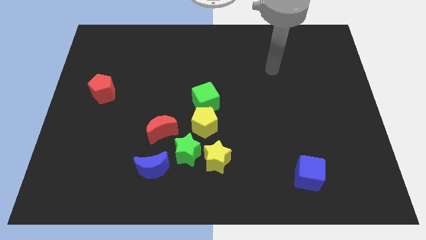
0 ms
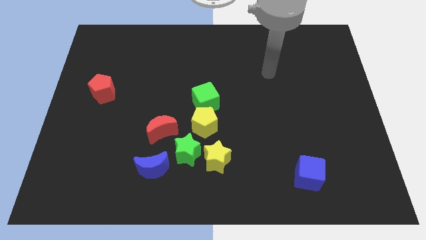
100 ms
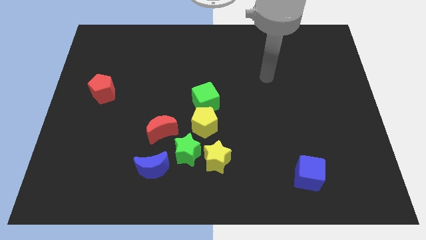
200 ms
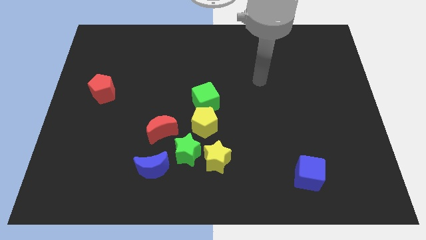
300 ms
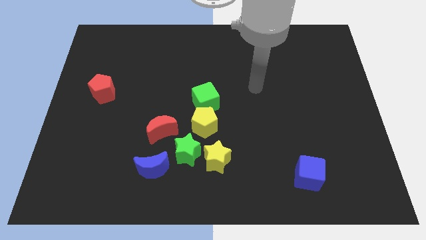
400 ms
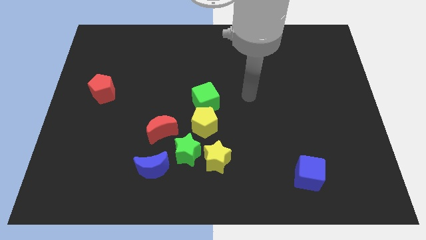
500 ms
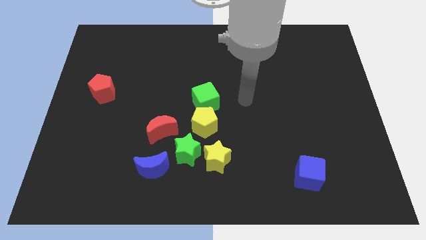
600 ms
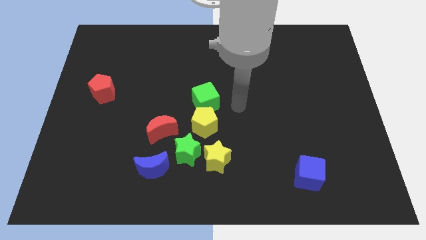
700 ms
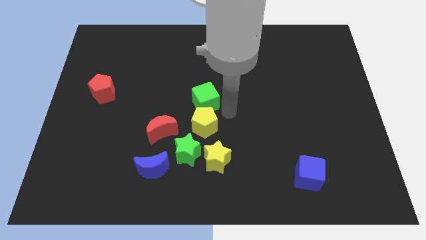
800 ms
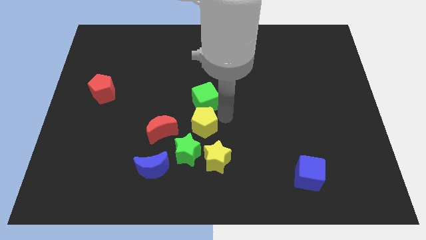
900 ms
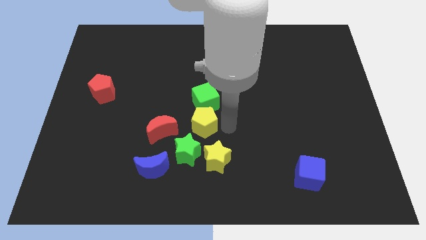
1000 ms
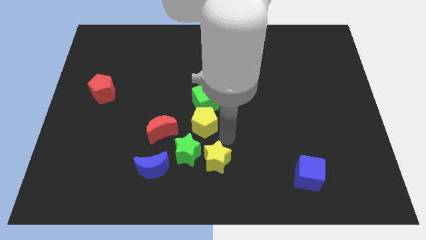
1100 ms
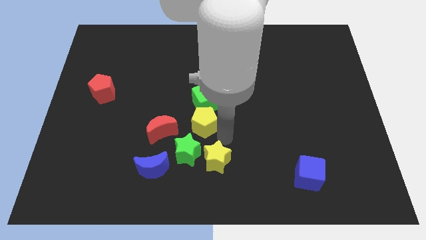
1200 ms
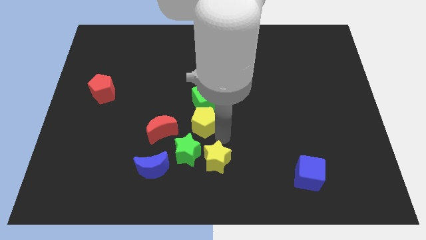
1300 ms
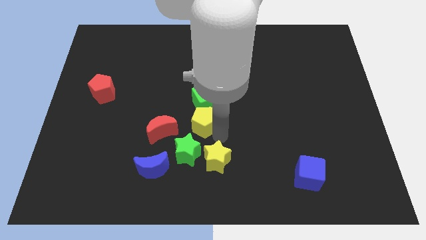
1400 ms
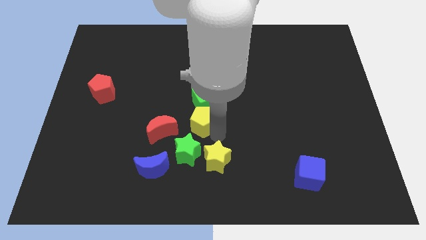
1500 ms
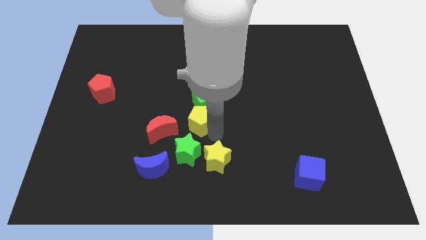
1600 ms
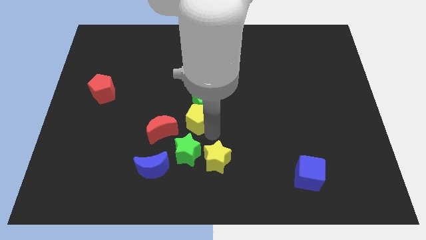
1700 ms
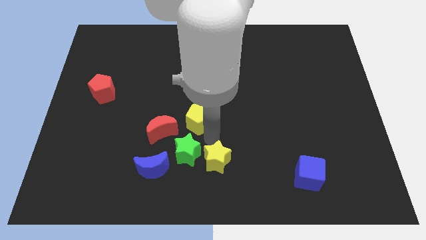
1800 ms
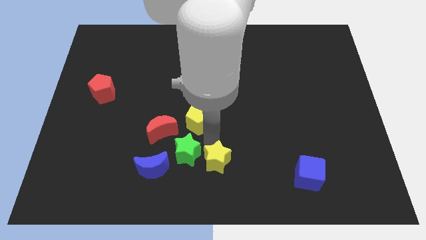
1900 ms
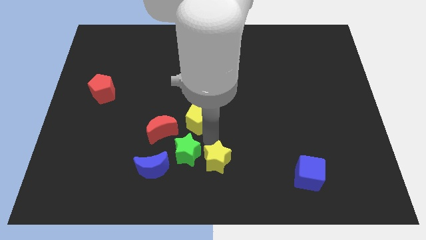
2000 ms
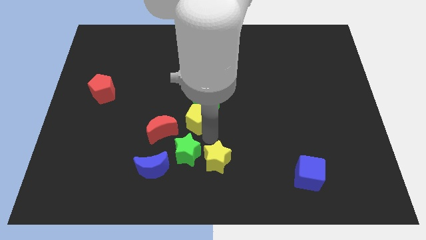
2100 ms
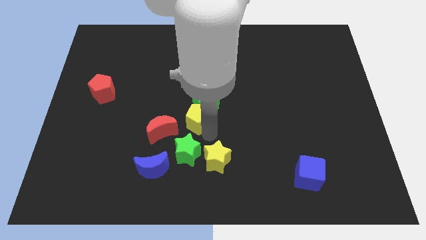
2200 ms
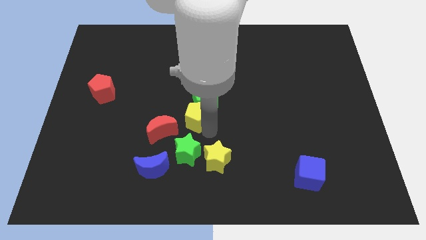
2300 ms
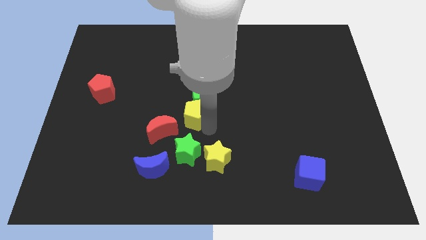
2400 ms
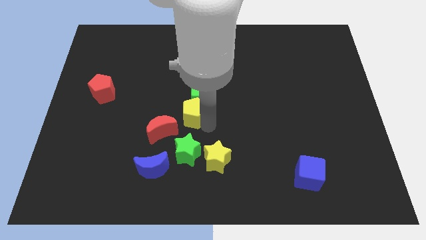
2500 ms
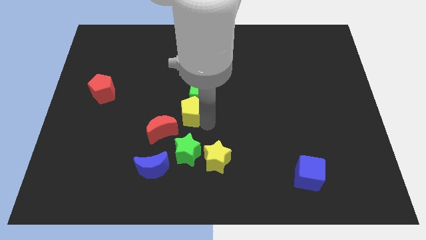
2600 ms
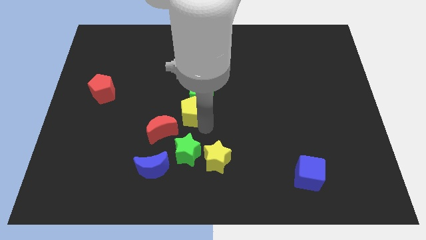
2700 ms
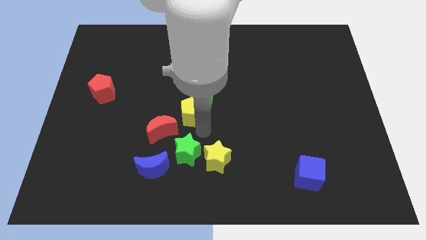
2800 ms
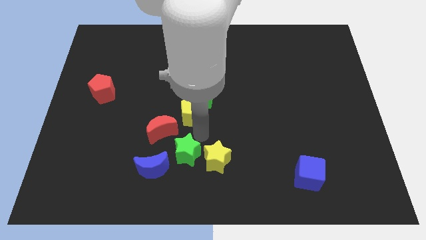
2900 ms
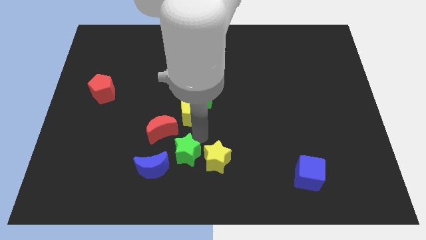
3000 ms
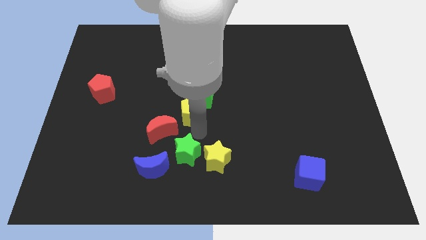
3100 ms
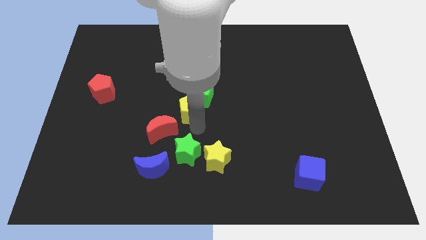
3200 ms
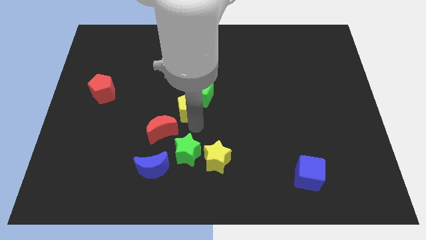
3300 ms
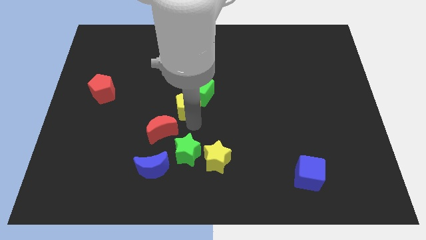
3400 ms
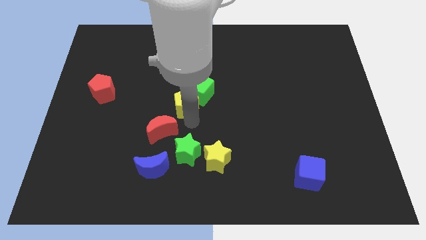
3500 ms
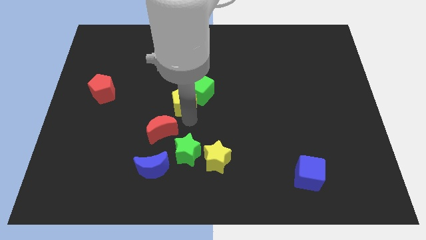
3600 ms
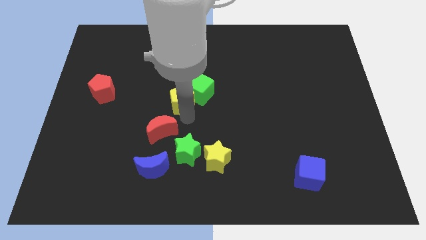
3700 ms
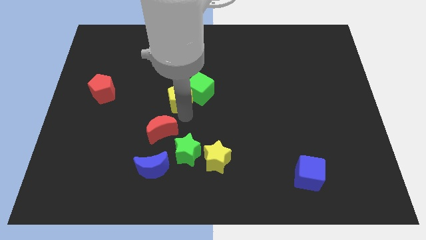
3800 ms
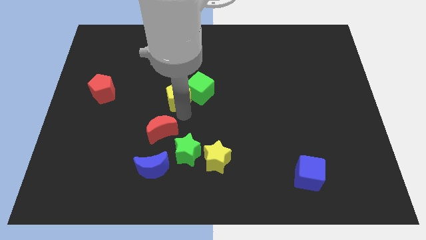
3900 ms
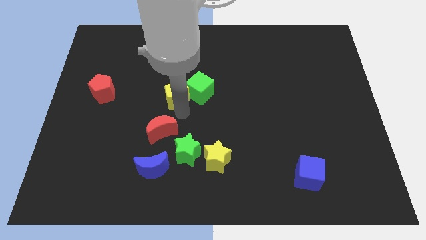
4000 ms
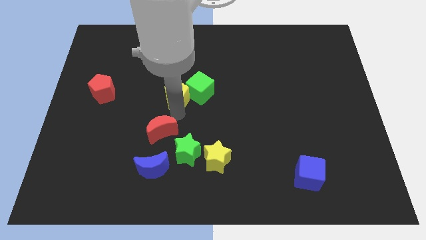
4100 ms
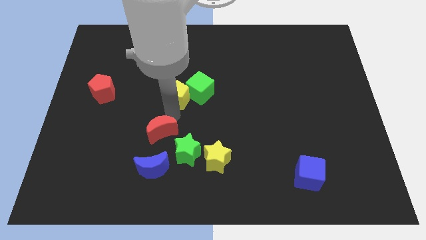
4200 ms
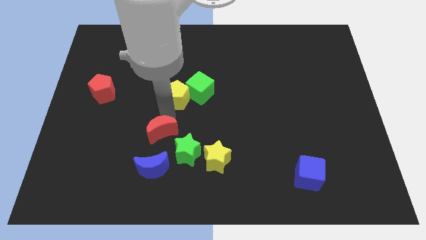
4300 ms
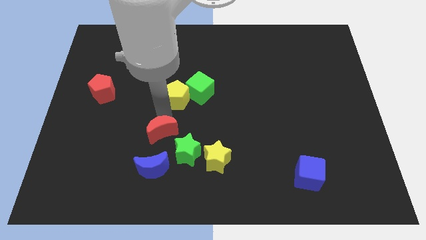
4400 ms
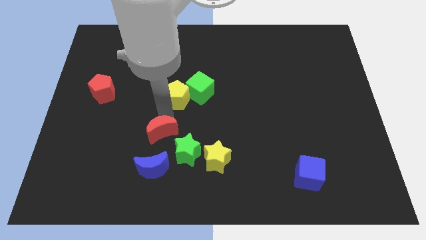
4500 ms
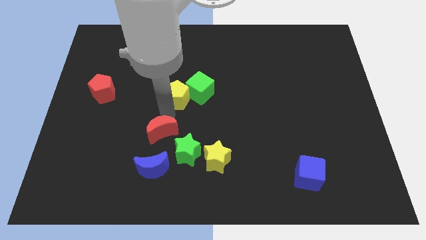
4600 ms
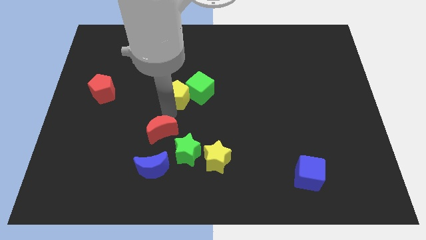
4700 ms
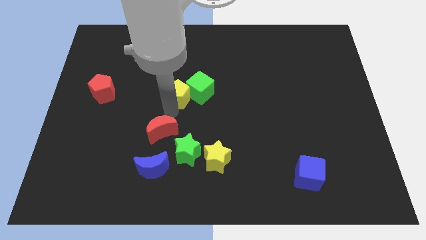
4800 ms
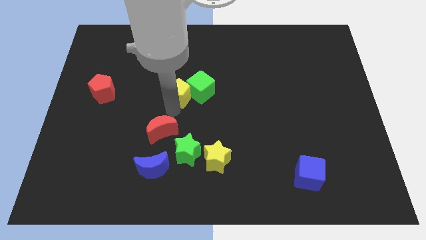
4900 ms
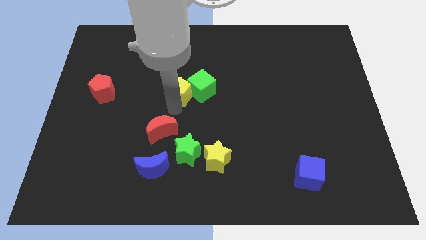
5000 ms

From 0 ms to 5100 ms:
slide the yellow pentagon a little up

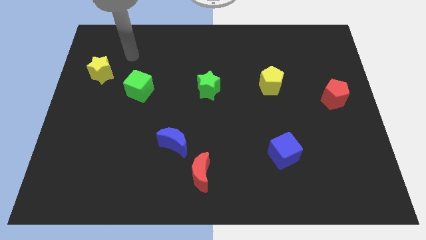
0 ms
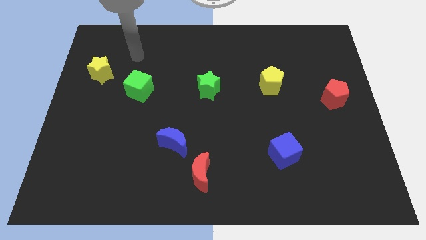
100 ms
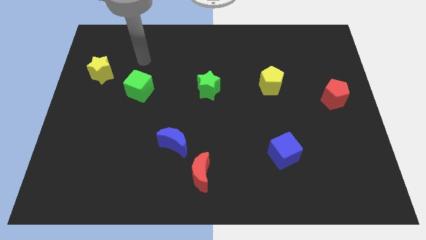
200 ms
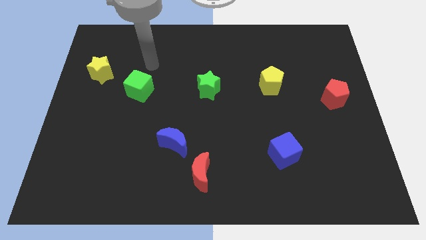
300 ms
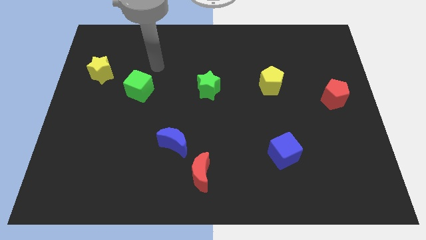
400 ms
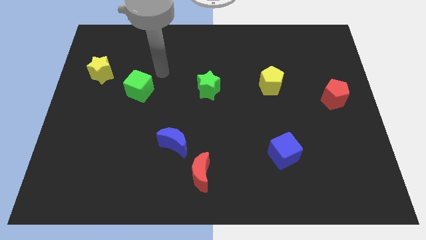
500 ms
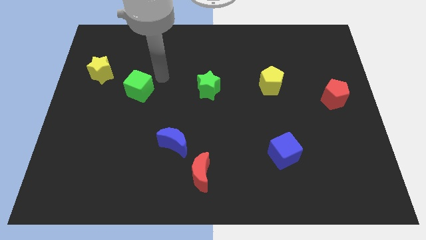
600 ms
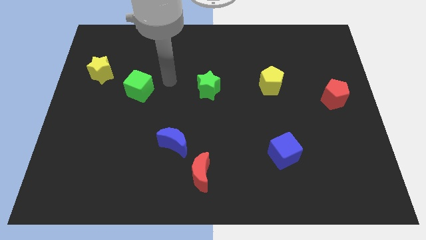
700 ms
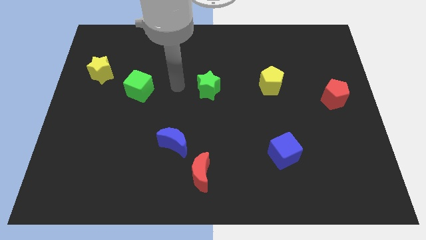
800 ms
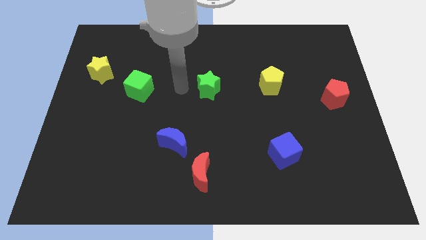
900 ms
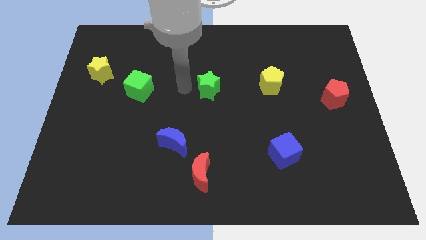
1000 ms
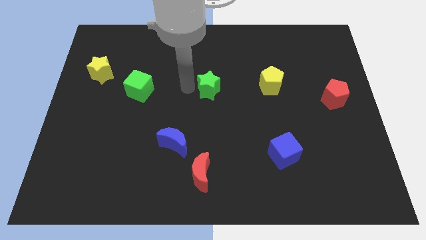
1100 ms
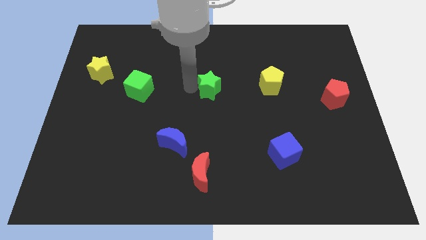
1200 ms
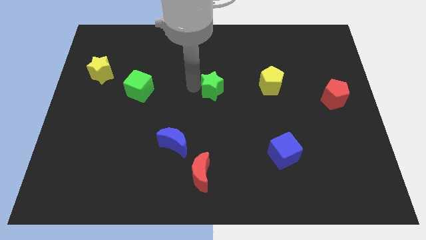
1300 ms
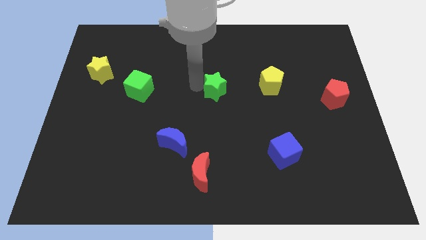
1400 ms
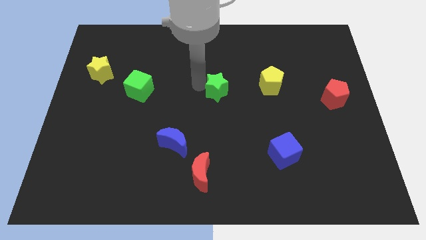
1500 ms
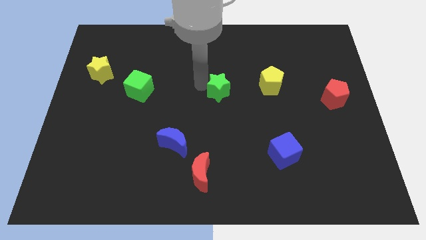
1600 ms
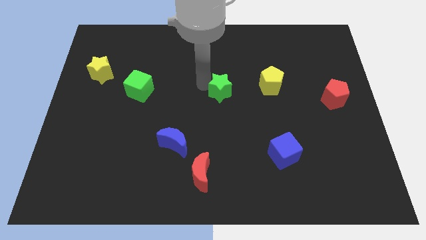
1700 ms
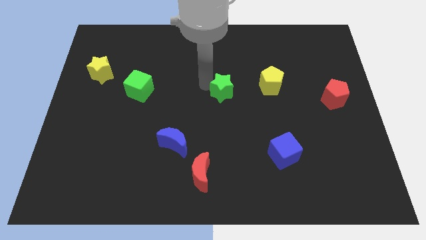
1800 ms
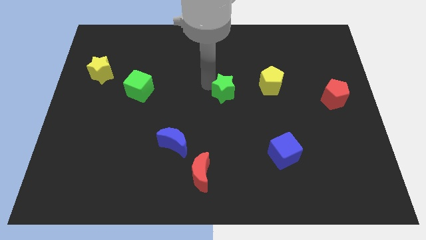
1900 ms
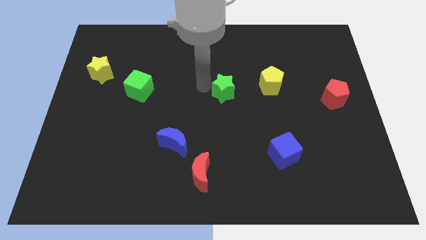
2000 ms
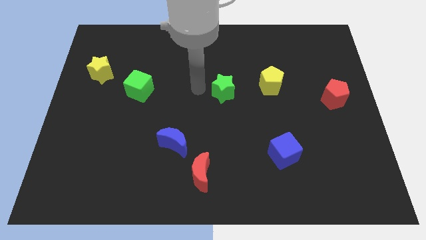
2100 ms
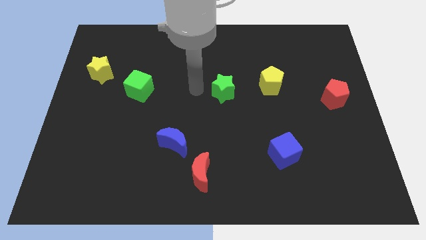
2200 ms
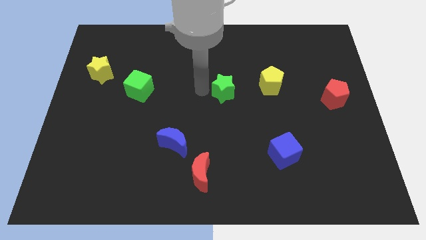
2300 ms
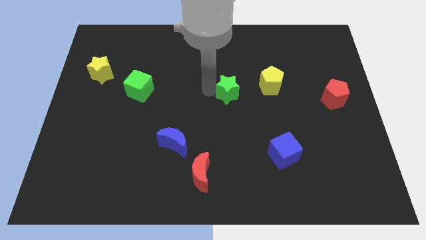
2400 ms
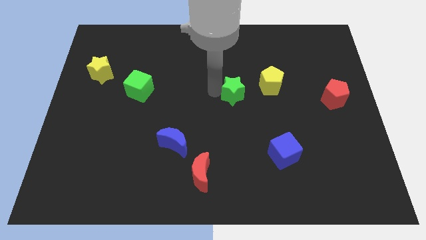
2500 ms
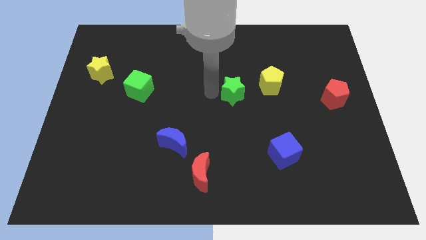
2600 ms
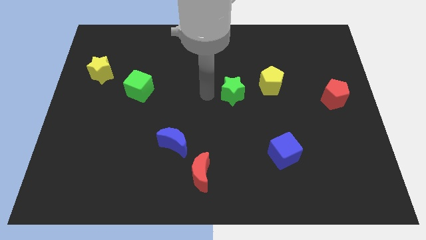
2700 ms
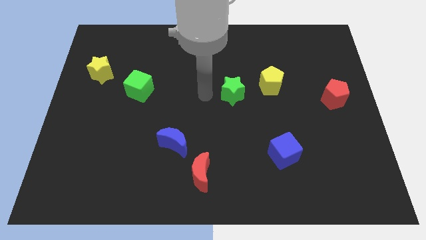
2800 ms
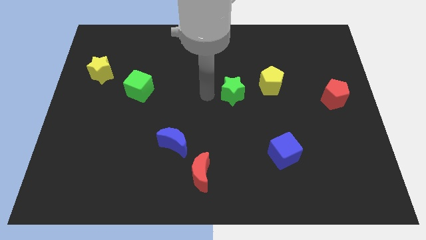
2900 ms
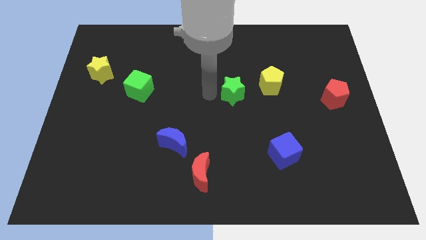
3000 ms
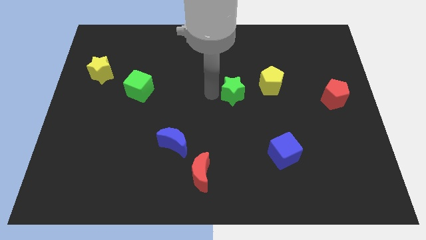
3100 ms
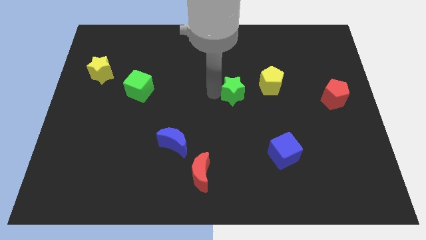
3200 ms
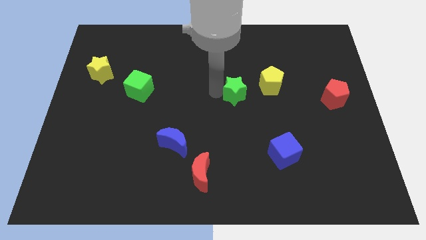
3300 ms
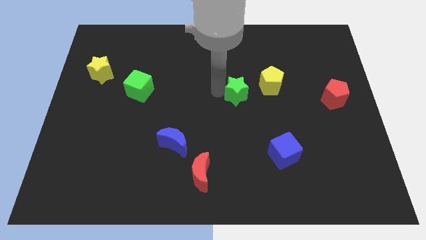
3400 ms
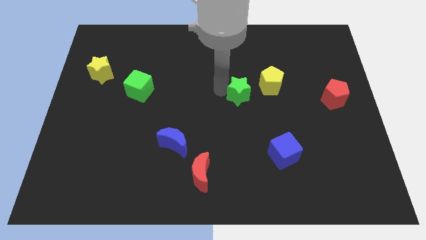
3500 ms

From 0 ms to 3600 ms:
slightly push the green star right
